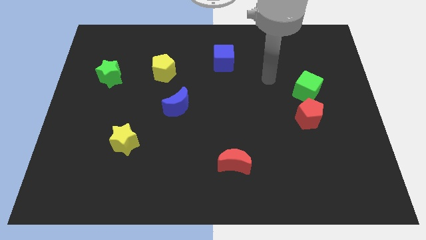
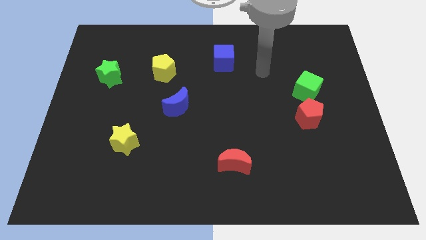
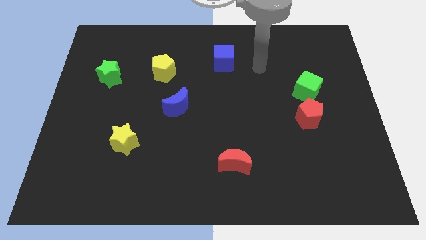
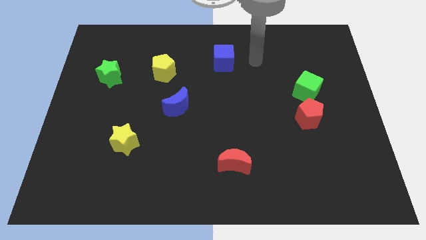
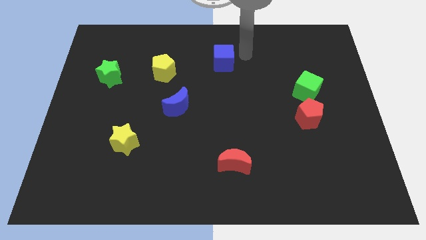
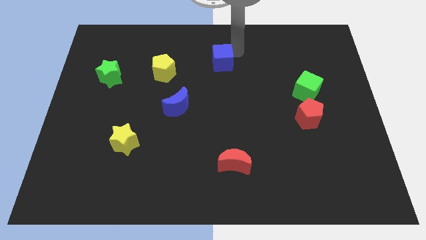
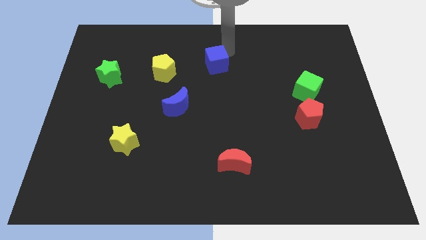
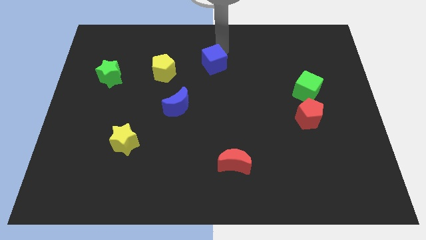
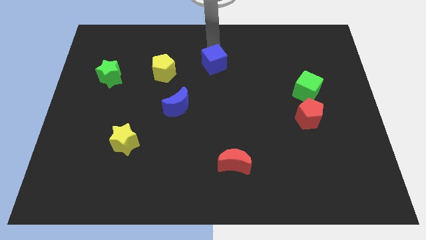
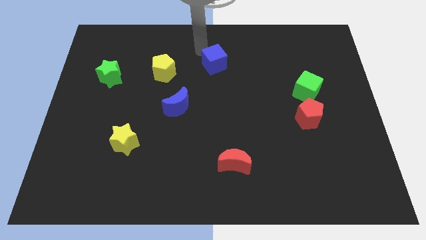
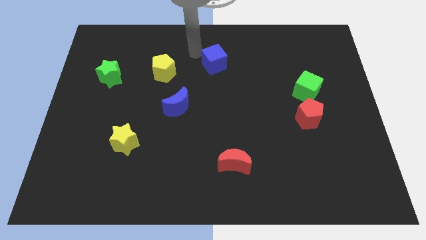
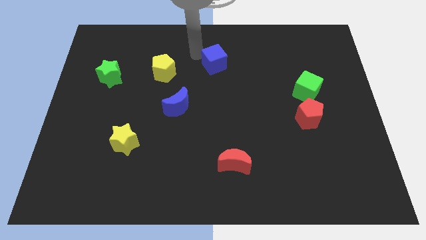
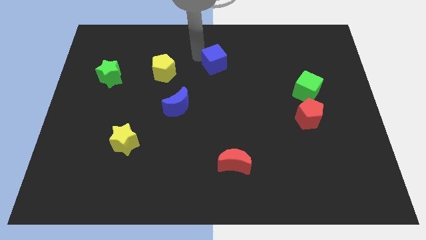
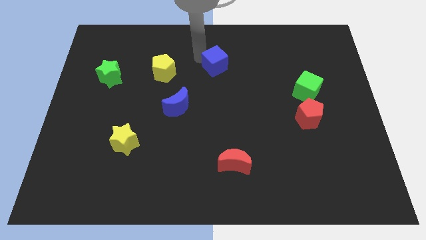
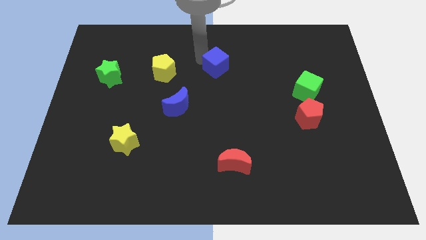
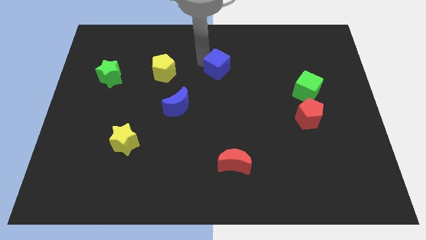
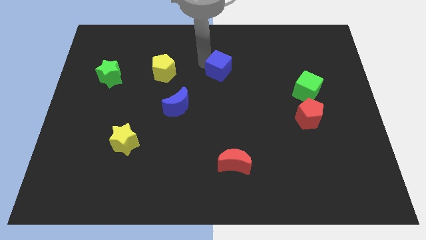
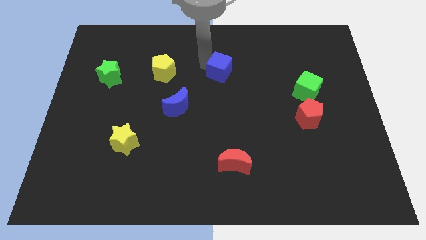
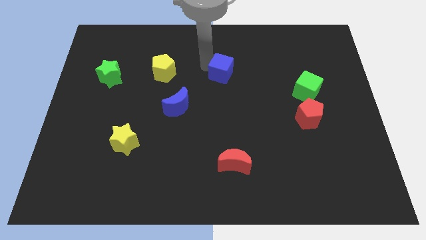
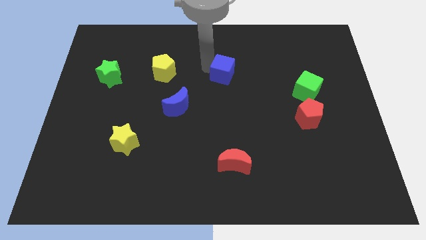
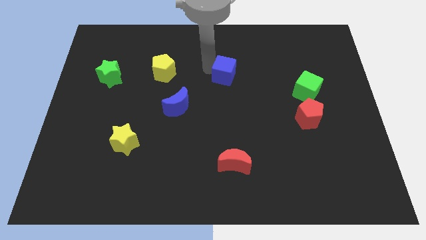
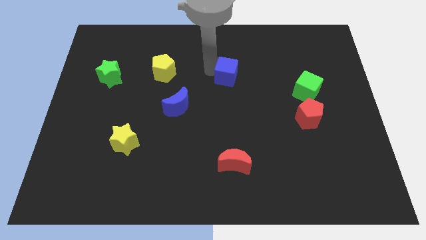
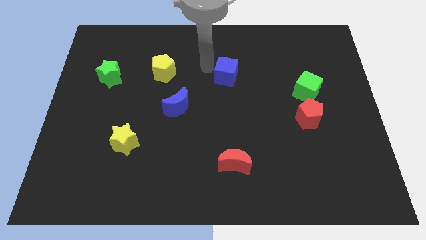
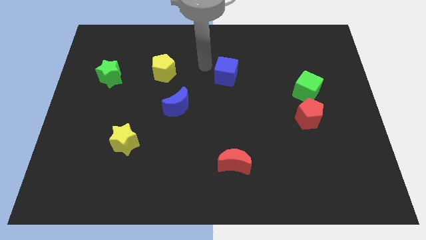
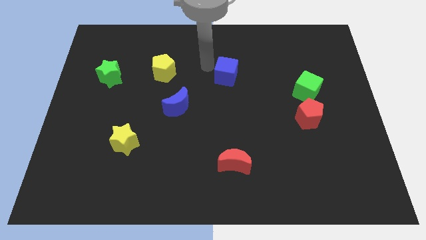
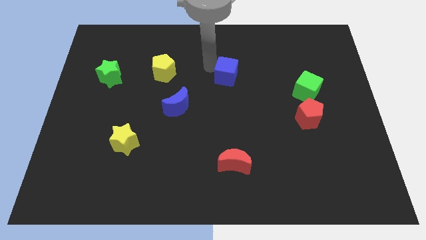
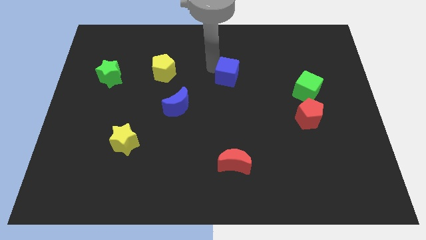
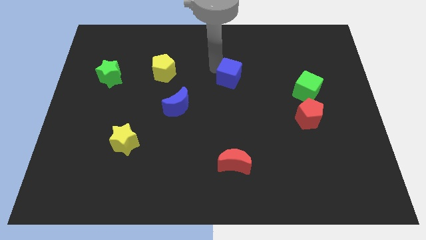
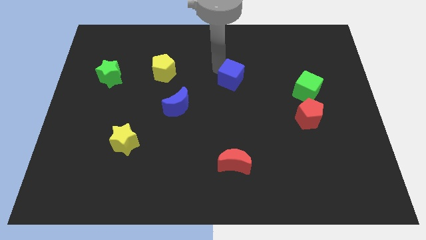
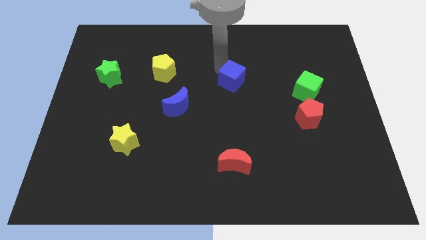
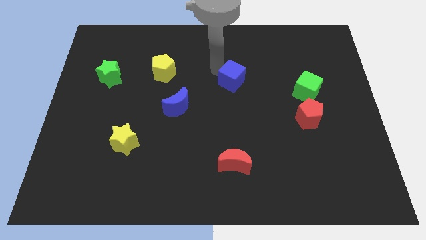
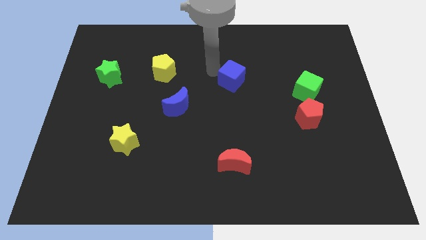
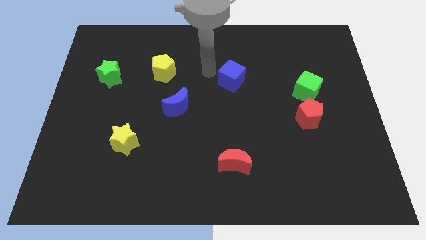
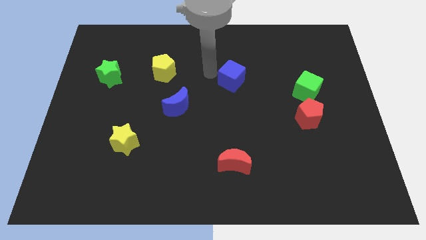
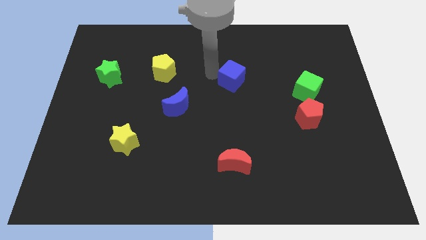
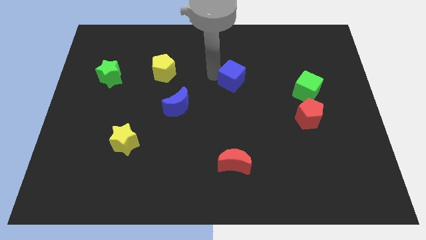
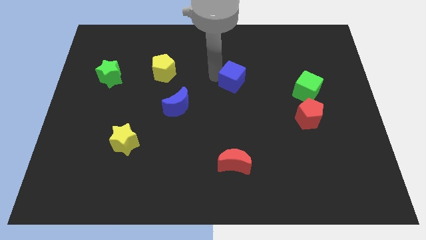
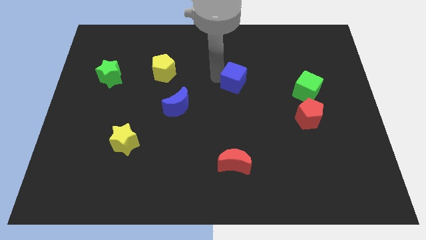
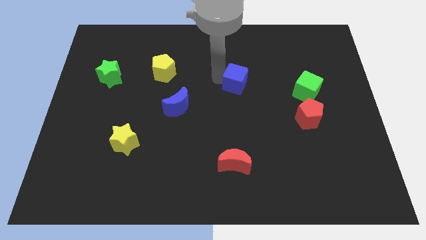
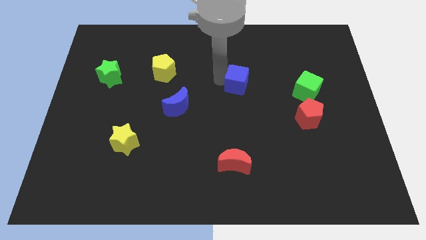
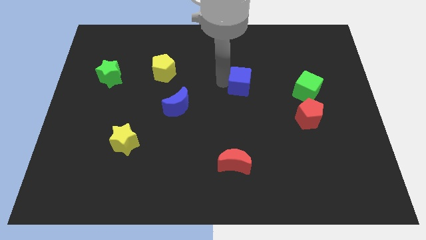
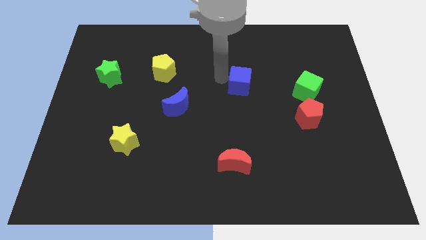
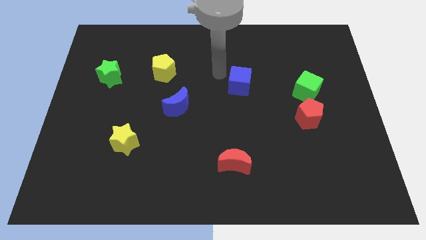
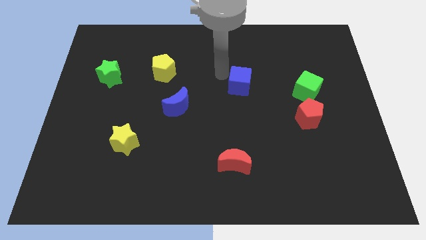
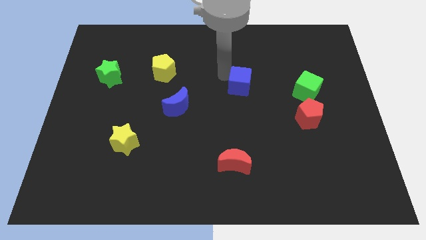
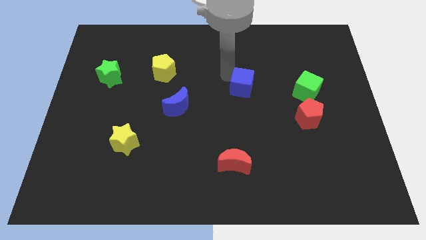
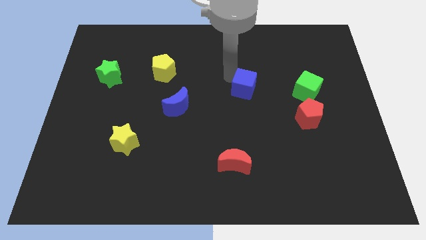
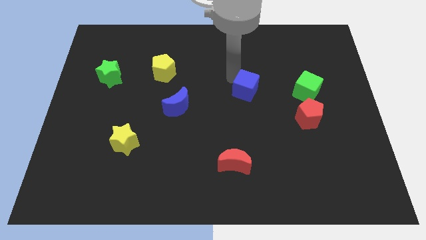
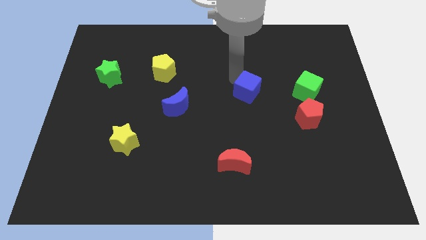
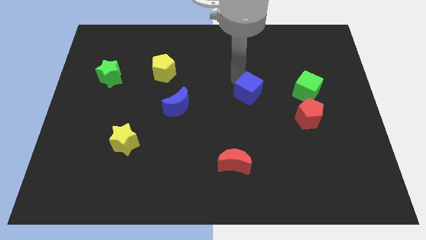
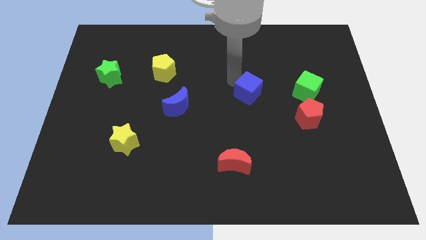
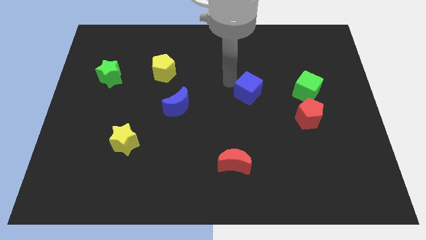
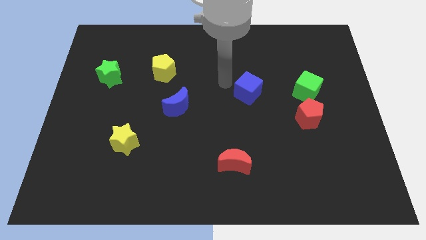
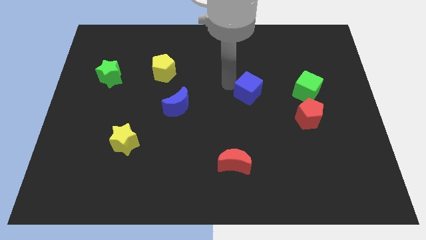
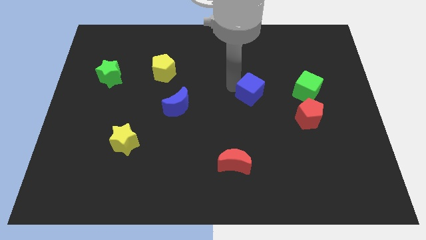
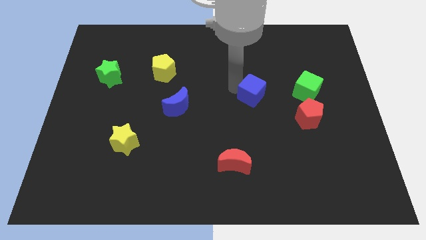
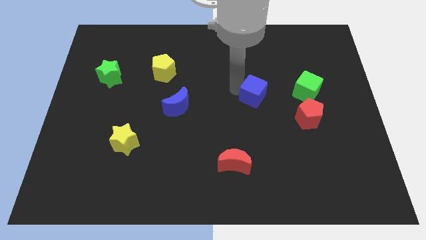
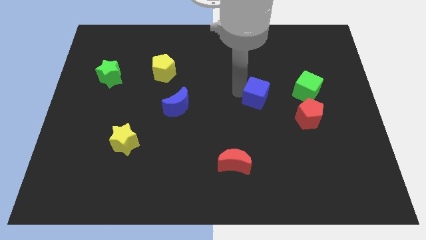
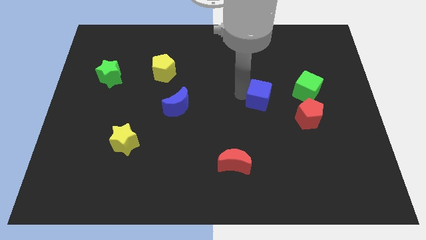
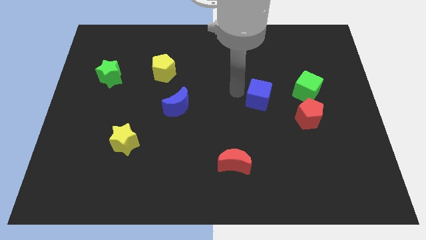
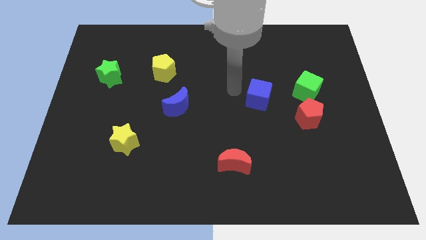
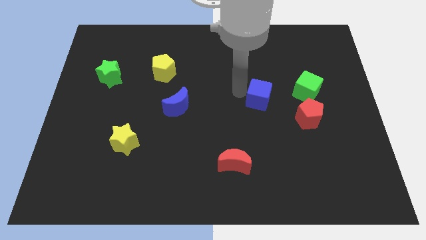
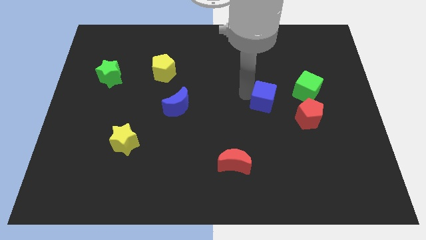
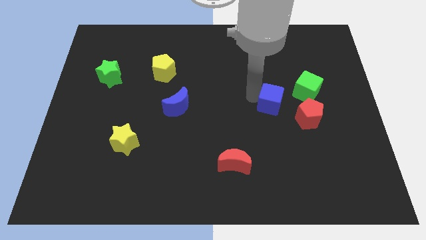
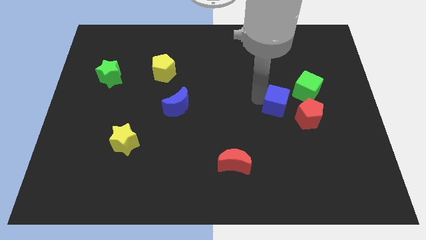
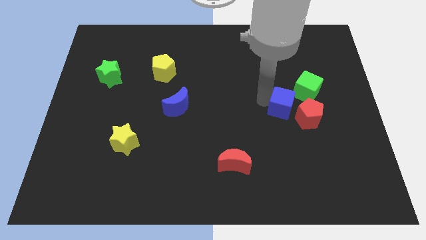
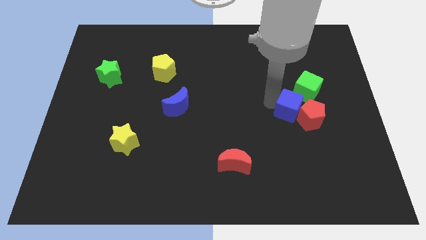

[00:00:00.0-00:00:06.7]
put the blue cube towards the red pentagon

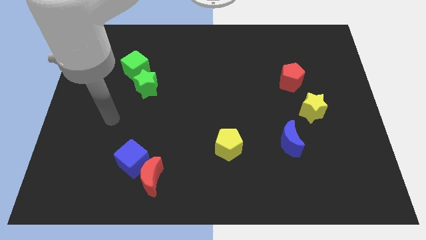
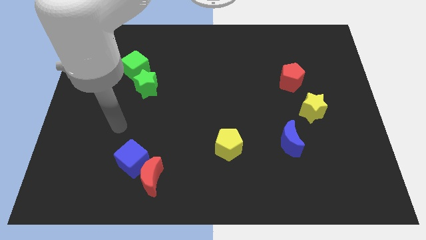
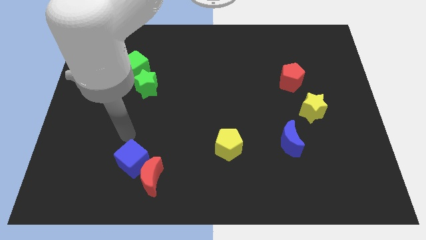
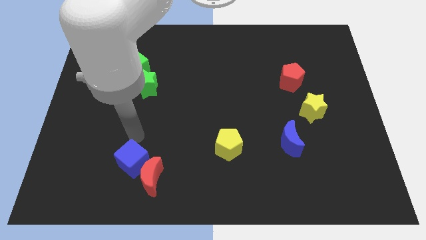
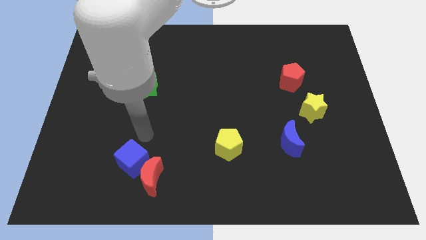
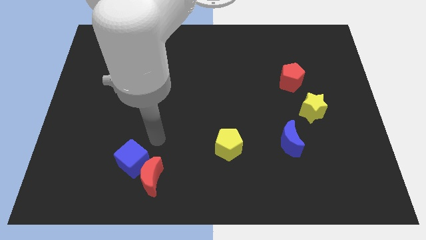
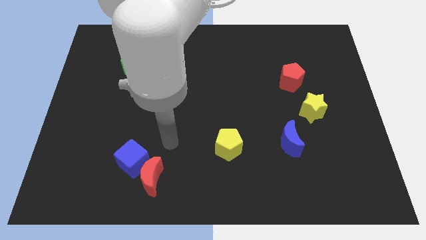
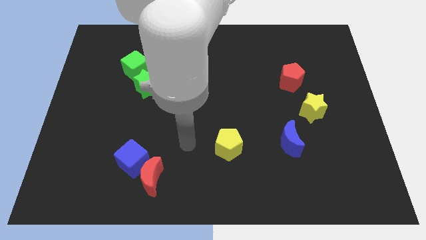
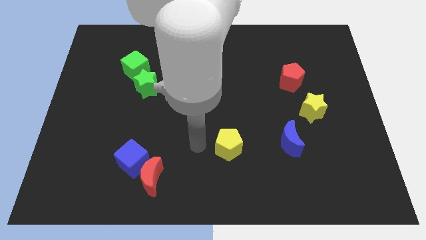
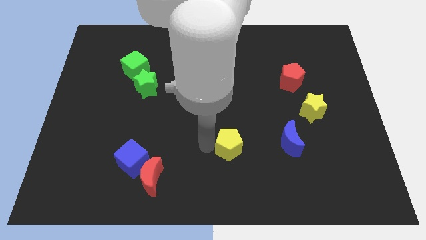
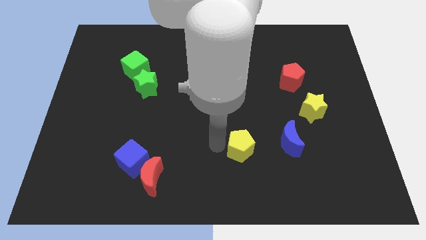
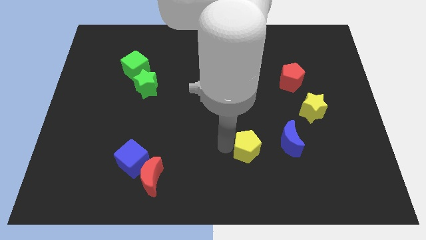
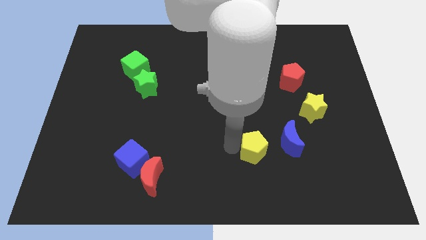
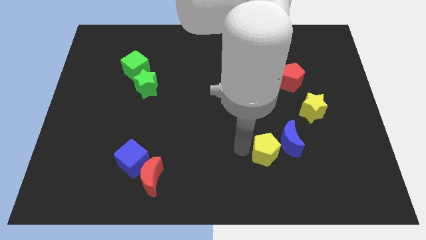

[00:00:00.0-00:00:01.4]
slide the yellow pentagon close to the blue moon
